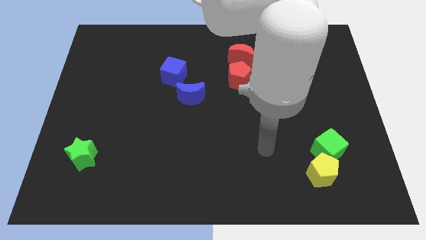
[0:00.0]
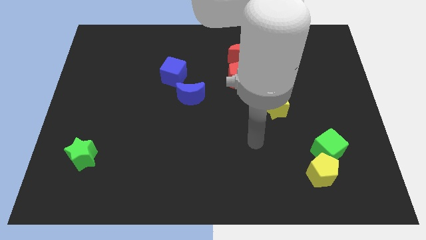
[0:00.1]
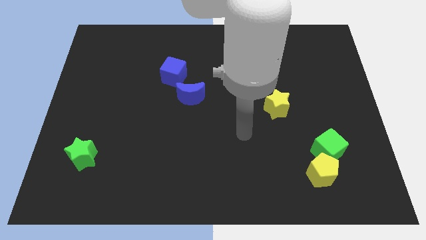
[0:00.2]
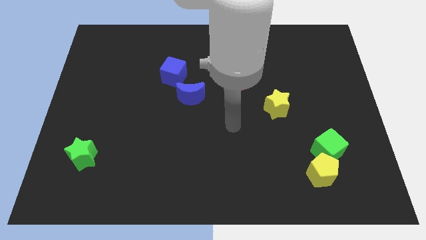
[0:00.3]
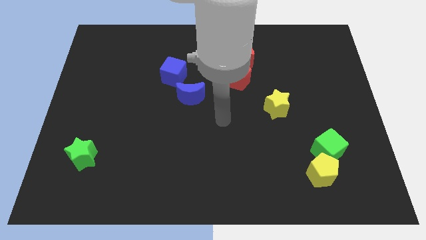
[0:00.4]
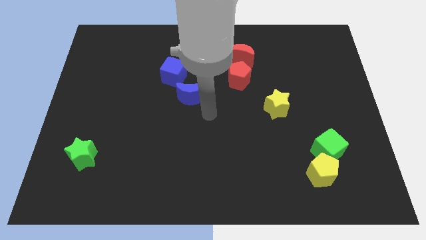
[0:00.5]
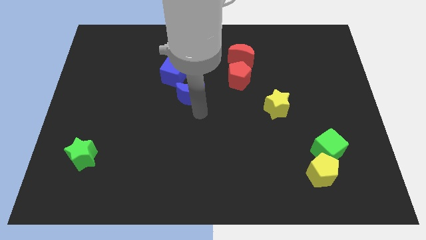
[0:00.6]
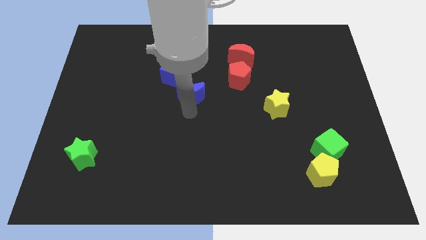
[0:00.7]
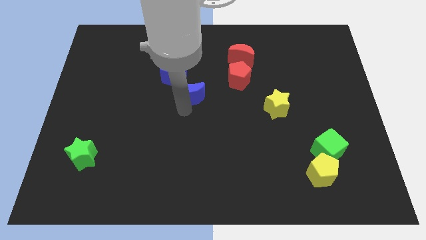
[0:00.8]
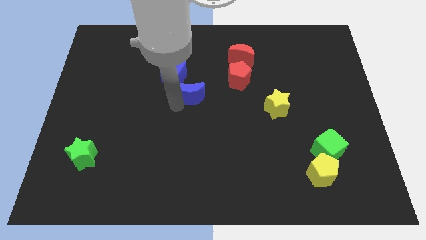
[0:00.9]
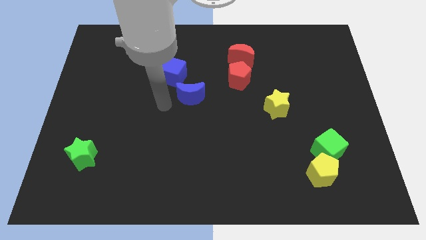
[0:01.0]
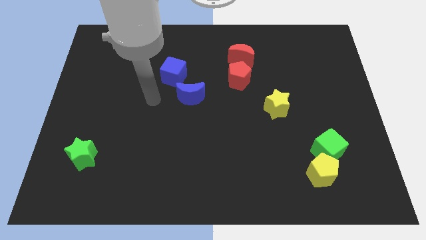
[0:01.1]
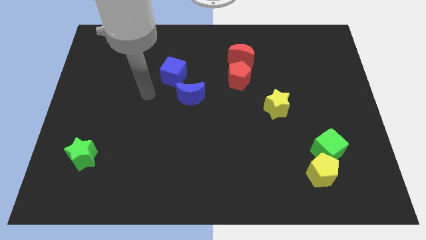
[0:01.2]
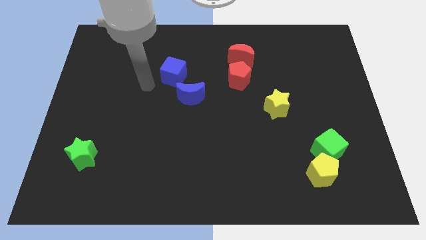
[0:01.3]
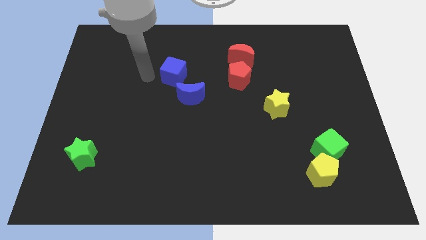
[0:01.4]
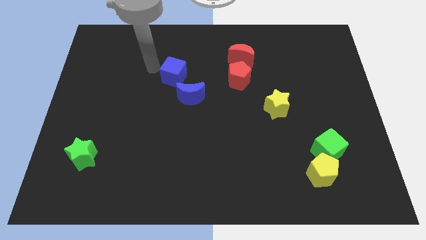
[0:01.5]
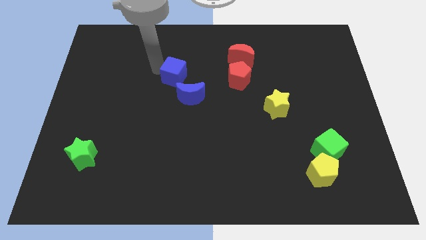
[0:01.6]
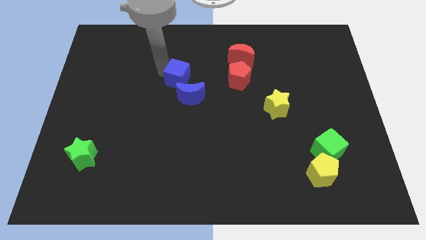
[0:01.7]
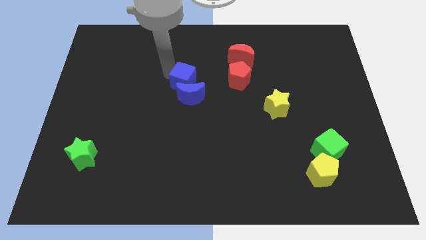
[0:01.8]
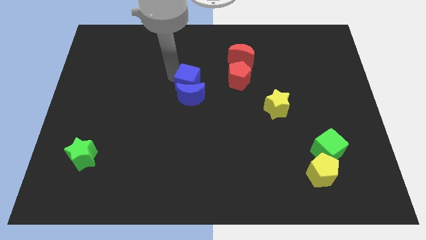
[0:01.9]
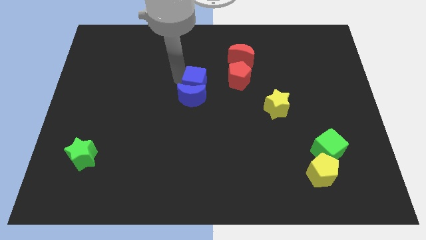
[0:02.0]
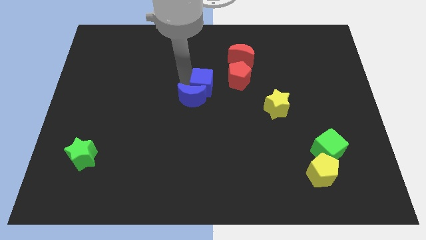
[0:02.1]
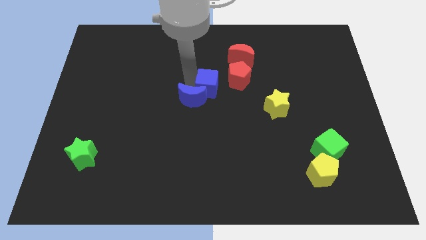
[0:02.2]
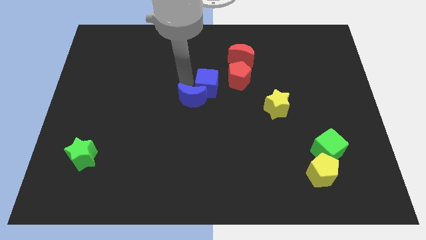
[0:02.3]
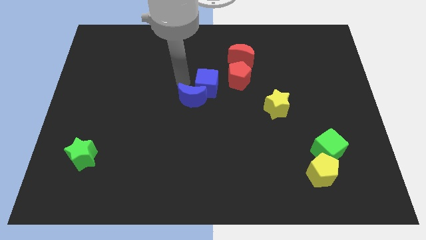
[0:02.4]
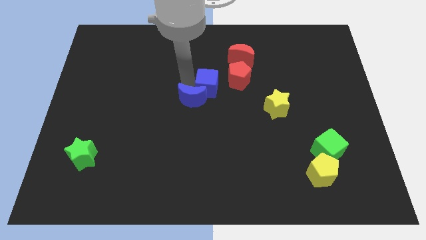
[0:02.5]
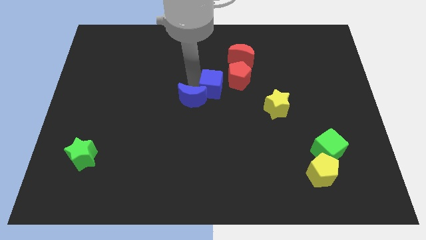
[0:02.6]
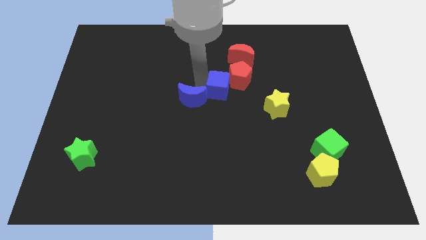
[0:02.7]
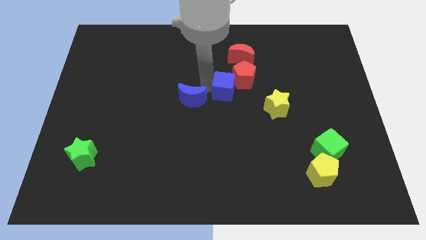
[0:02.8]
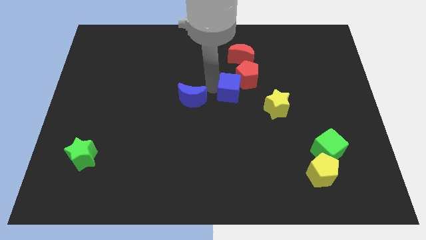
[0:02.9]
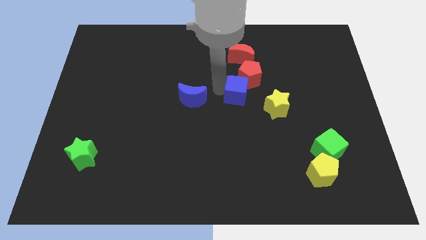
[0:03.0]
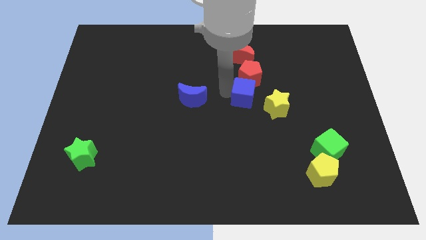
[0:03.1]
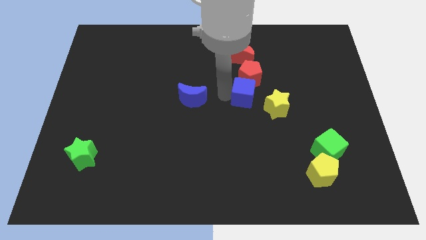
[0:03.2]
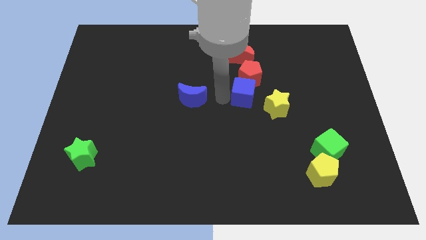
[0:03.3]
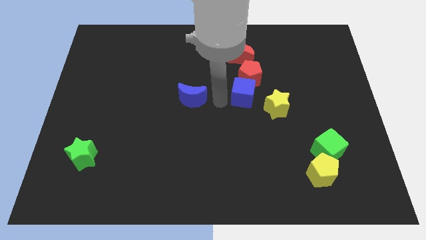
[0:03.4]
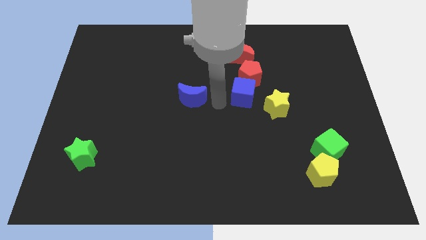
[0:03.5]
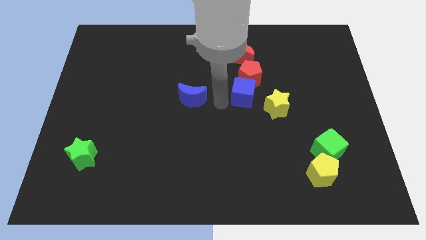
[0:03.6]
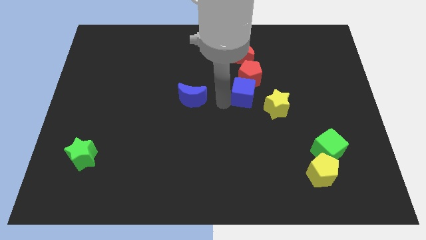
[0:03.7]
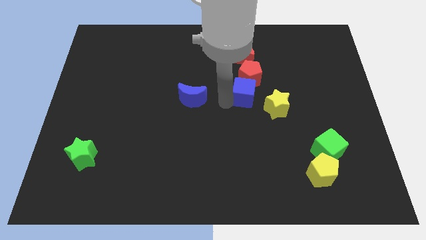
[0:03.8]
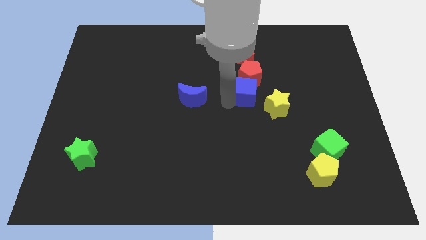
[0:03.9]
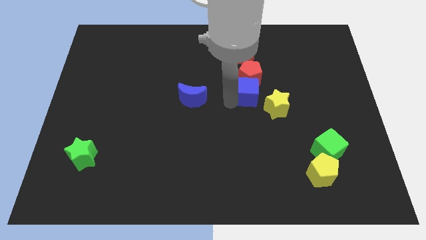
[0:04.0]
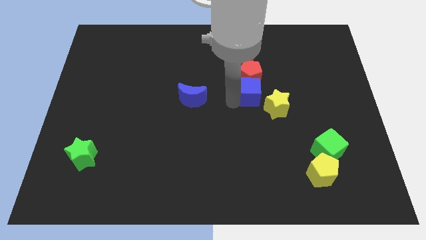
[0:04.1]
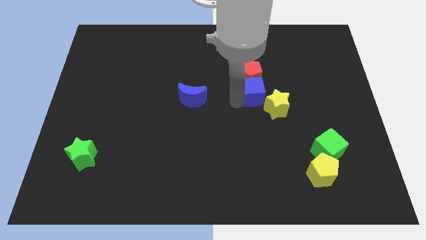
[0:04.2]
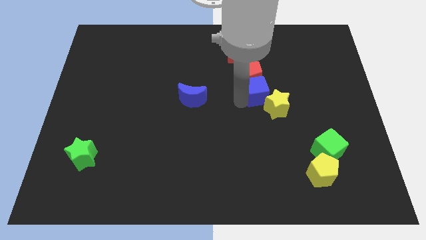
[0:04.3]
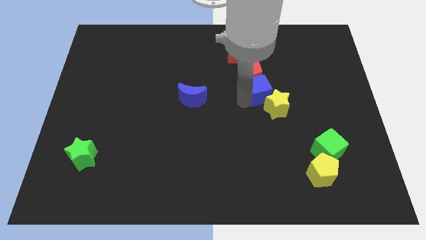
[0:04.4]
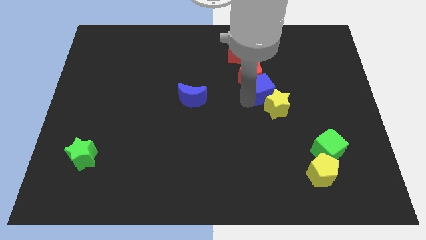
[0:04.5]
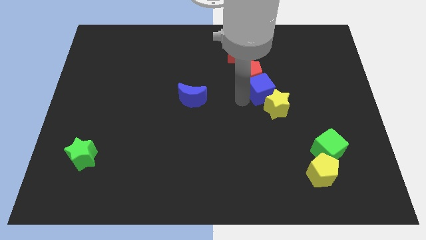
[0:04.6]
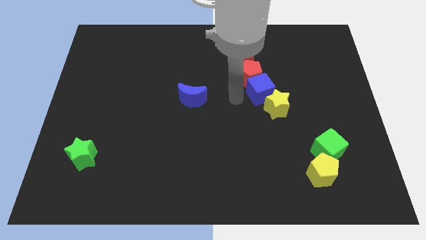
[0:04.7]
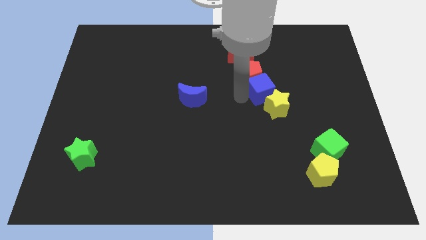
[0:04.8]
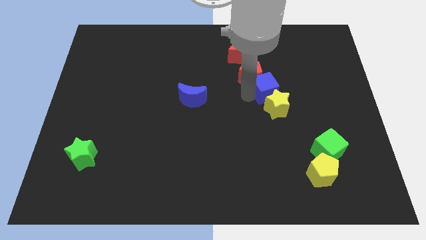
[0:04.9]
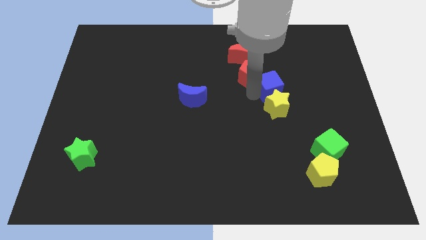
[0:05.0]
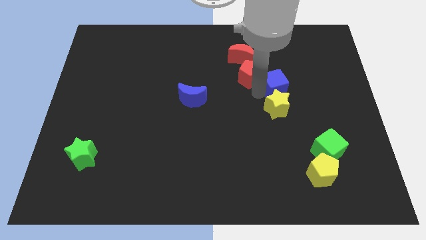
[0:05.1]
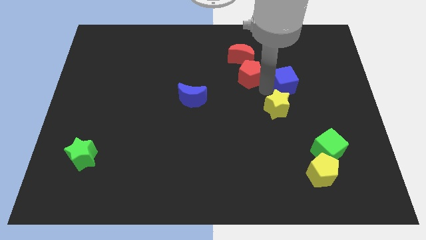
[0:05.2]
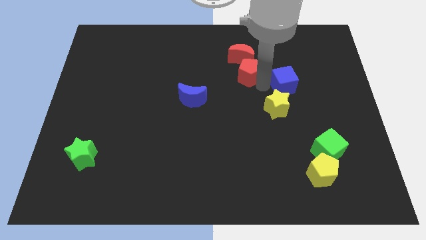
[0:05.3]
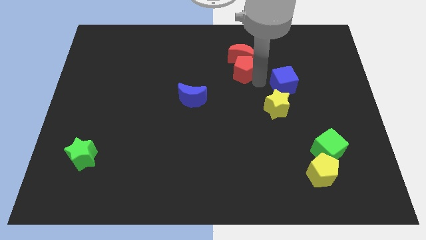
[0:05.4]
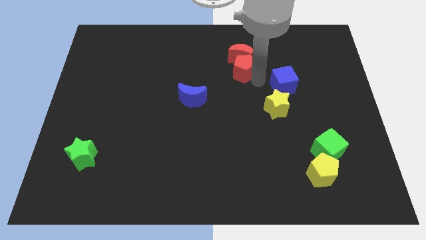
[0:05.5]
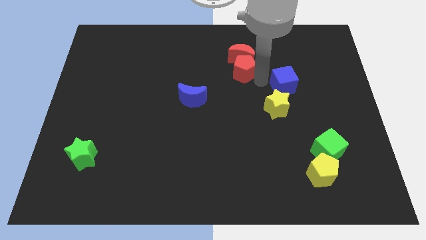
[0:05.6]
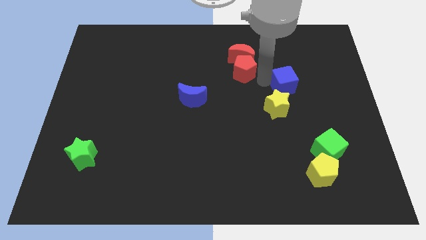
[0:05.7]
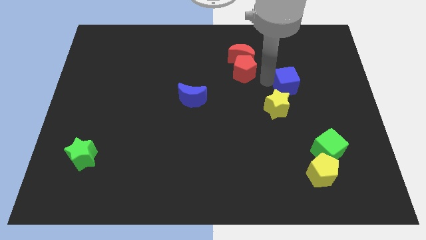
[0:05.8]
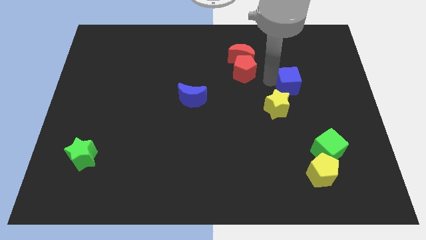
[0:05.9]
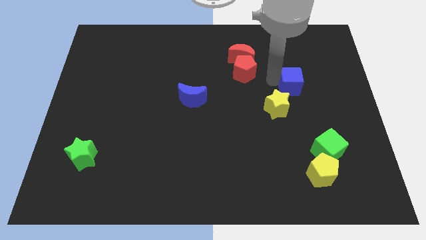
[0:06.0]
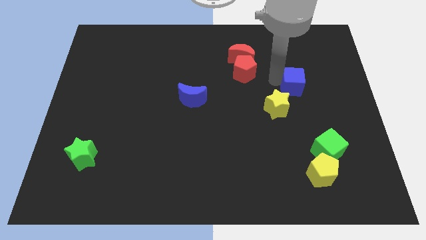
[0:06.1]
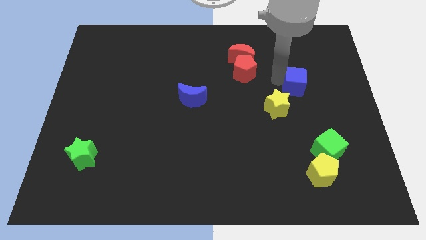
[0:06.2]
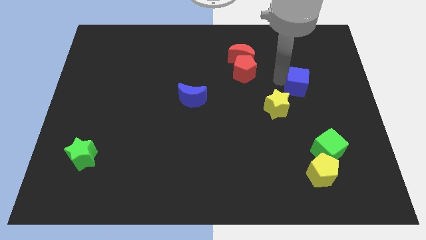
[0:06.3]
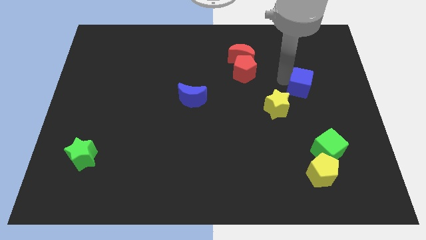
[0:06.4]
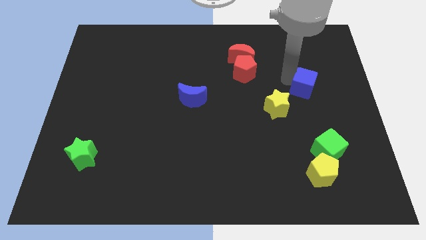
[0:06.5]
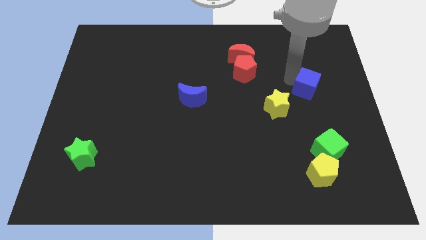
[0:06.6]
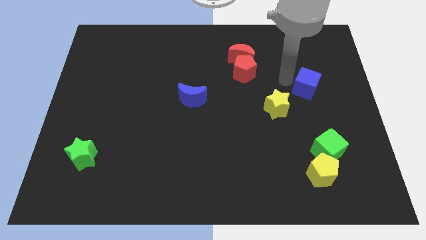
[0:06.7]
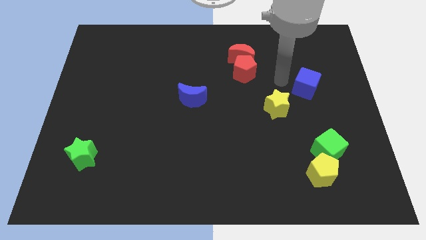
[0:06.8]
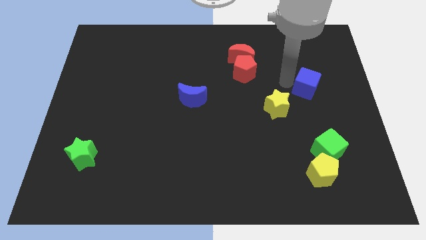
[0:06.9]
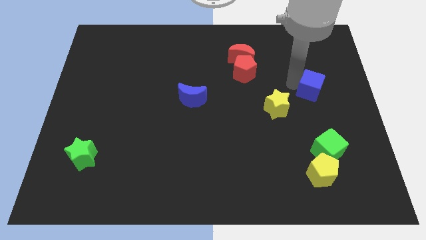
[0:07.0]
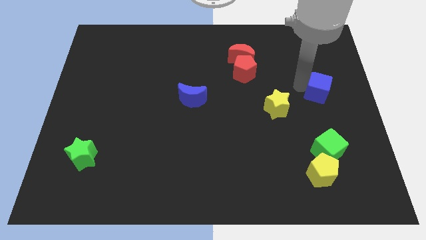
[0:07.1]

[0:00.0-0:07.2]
push the blue cube to the right side of the board
